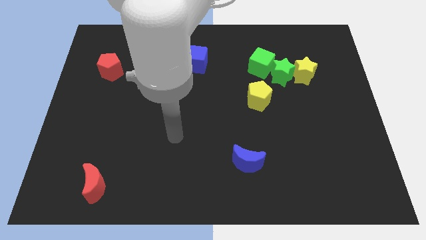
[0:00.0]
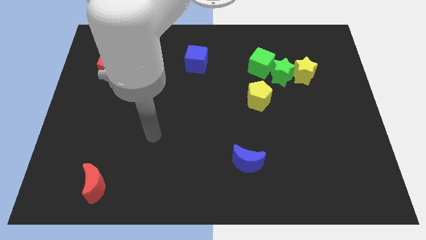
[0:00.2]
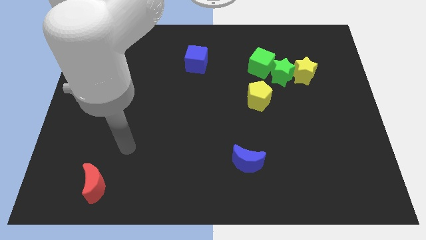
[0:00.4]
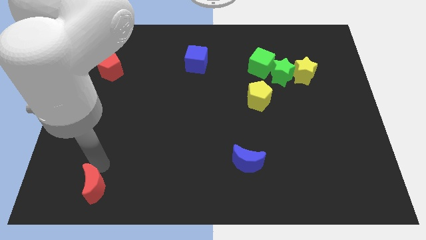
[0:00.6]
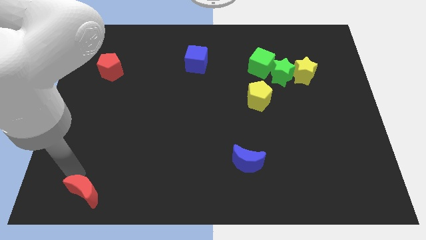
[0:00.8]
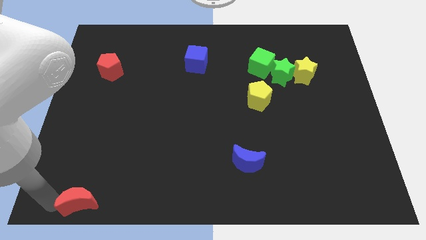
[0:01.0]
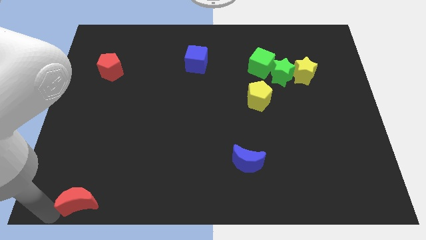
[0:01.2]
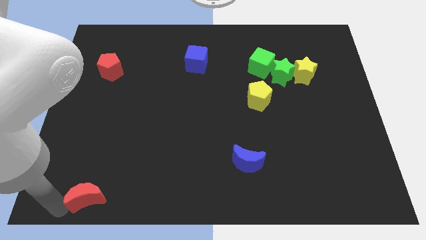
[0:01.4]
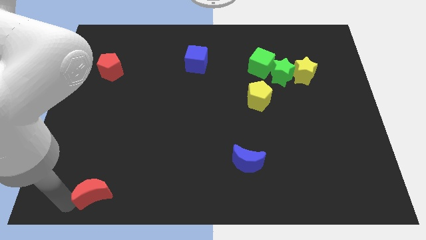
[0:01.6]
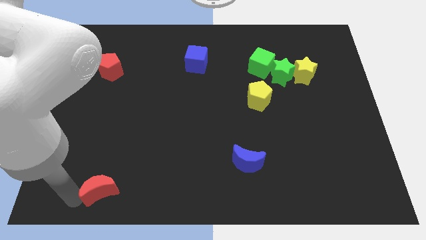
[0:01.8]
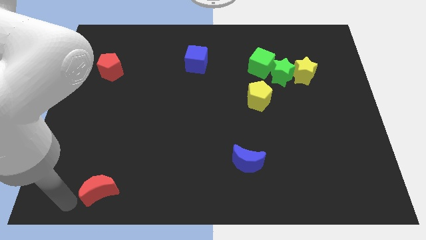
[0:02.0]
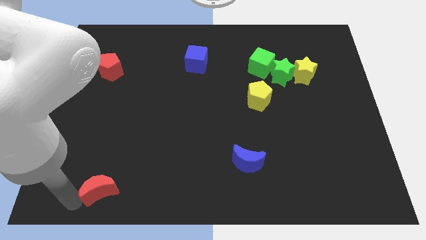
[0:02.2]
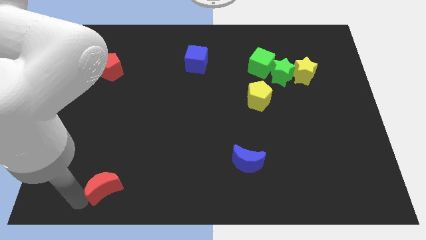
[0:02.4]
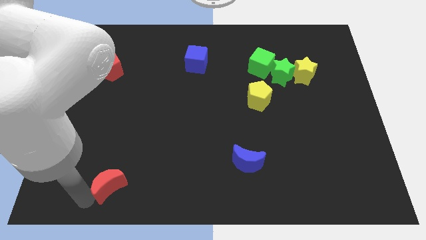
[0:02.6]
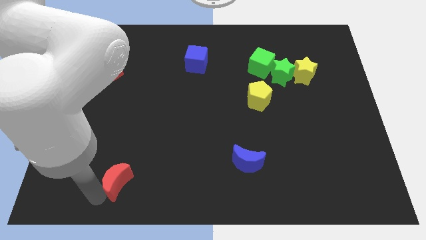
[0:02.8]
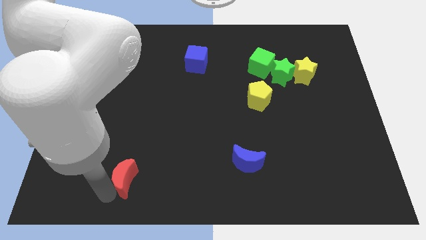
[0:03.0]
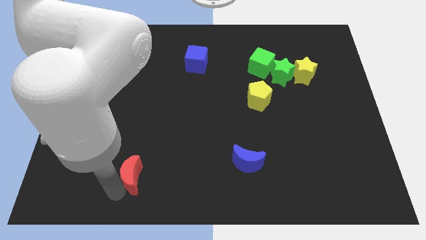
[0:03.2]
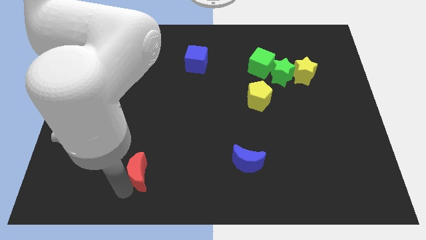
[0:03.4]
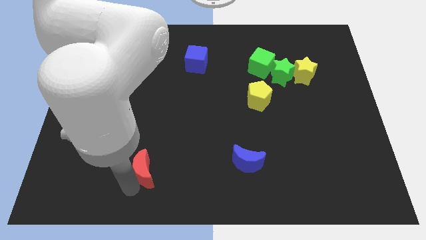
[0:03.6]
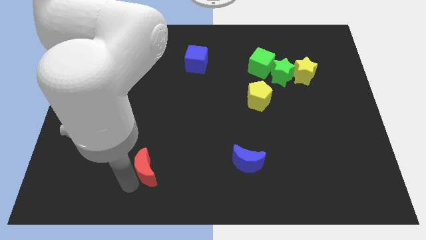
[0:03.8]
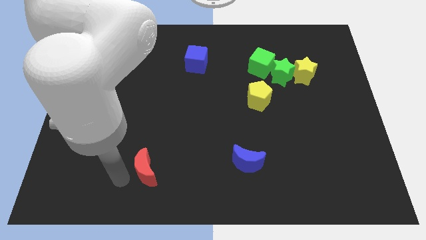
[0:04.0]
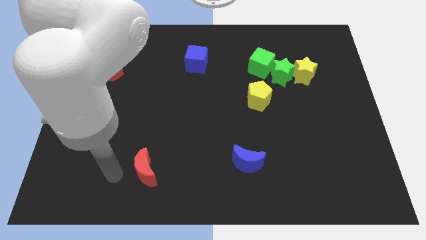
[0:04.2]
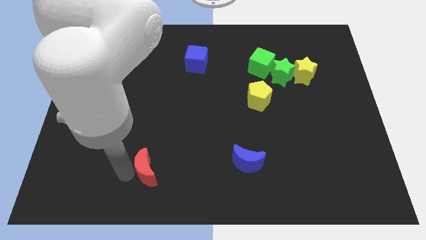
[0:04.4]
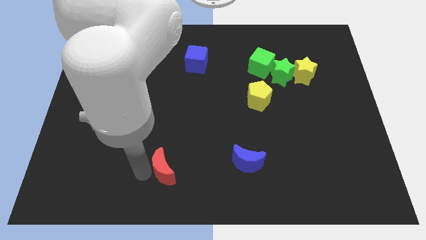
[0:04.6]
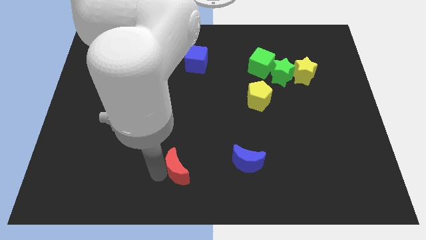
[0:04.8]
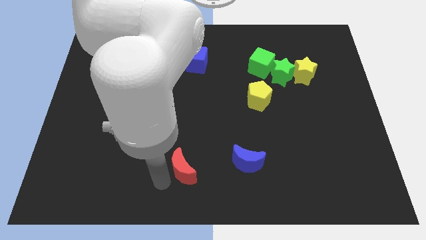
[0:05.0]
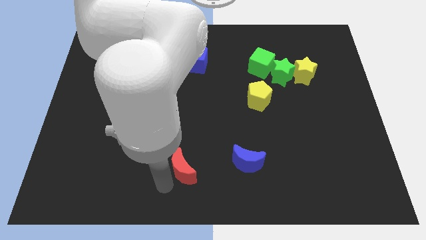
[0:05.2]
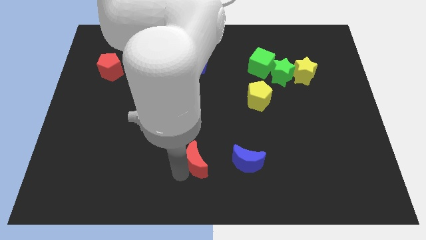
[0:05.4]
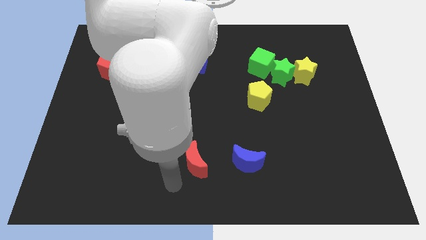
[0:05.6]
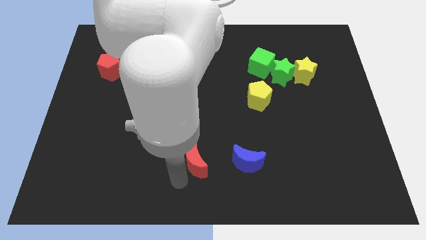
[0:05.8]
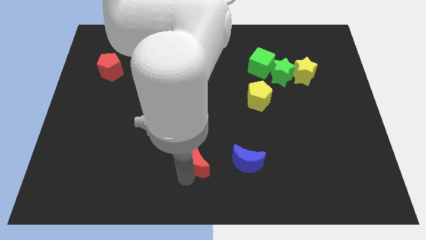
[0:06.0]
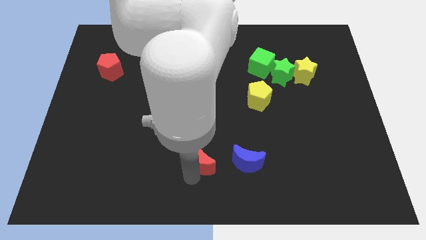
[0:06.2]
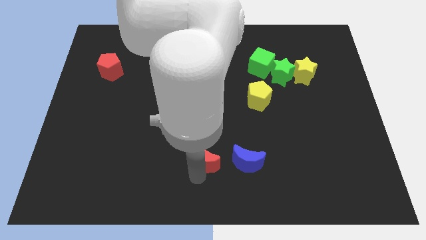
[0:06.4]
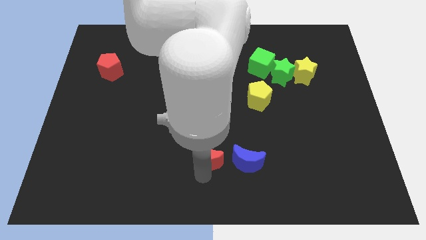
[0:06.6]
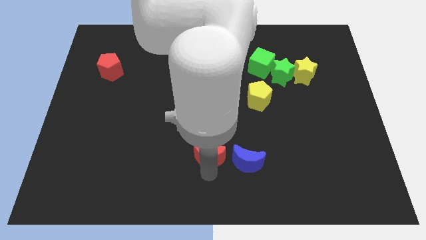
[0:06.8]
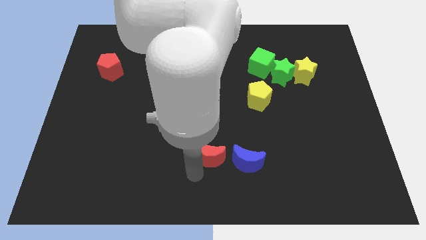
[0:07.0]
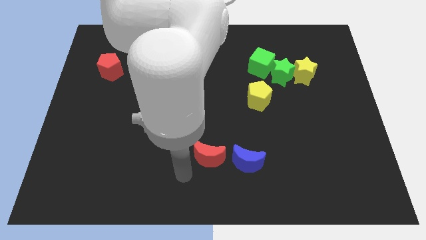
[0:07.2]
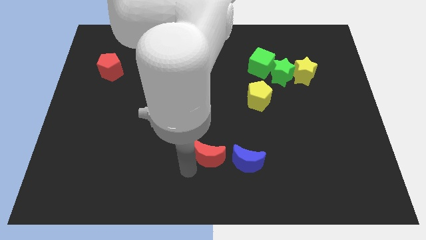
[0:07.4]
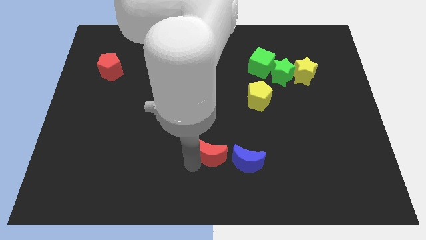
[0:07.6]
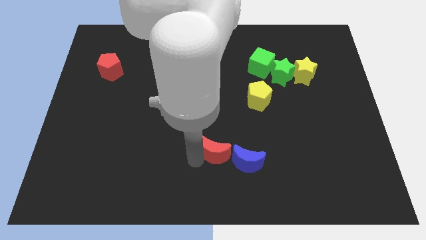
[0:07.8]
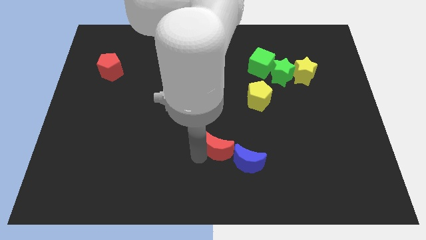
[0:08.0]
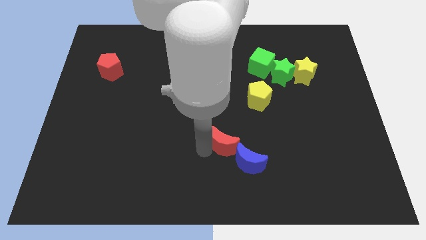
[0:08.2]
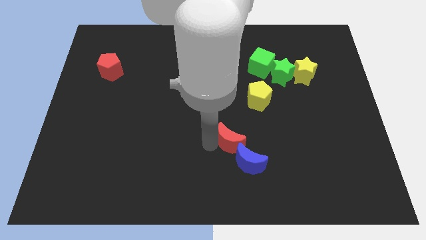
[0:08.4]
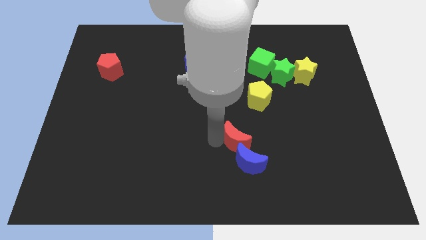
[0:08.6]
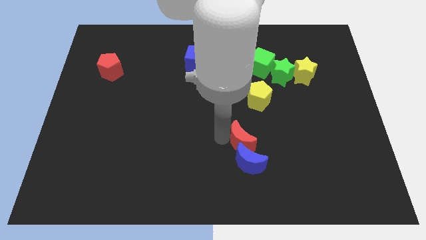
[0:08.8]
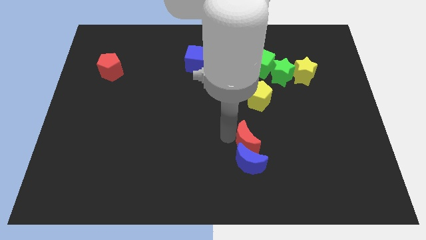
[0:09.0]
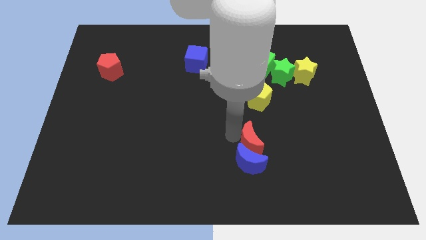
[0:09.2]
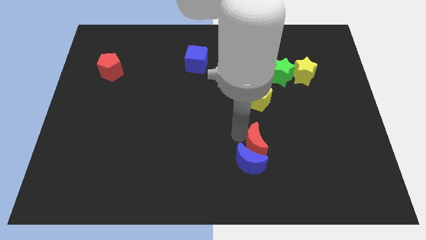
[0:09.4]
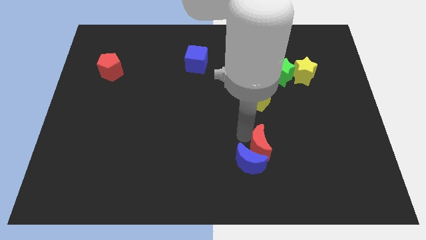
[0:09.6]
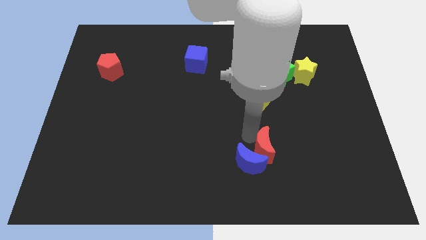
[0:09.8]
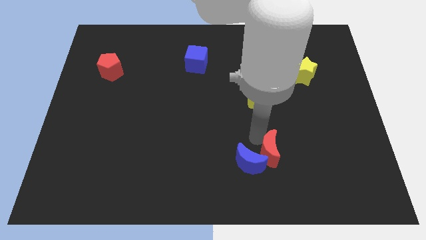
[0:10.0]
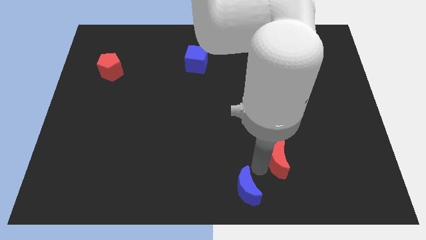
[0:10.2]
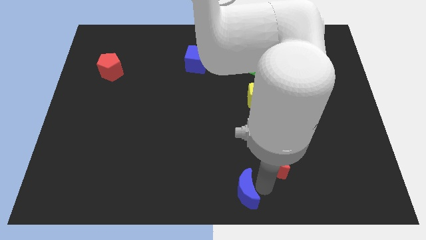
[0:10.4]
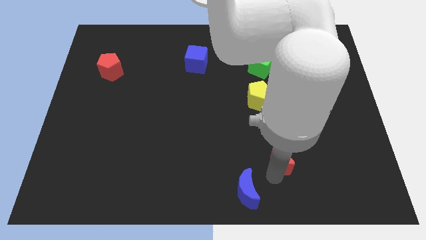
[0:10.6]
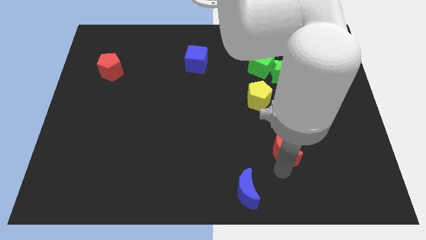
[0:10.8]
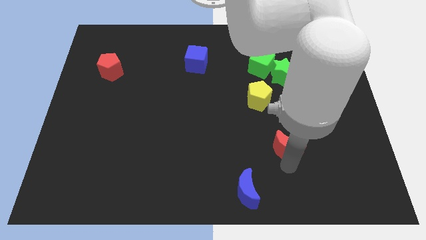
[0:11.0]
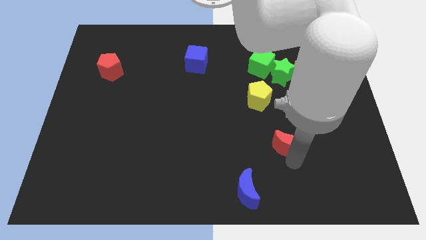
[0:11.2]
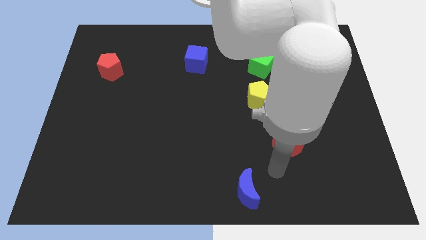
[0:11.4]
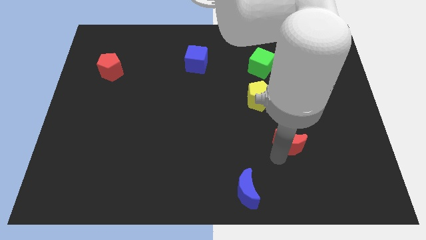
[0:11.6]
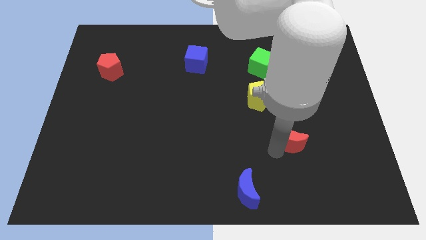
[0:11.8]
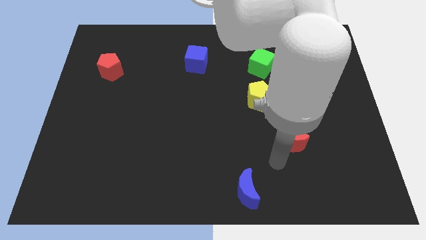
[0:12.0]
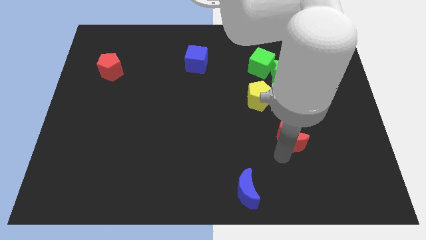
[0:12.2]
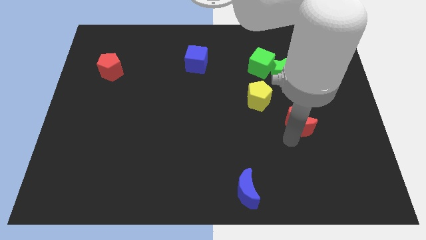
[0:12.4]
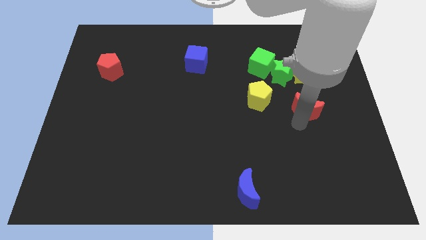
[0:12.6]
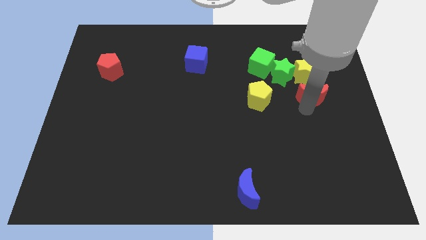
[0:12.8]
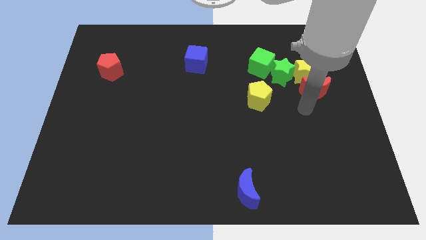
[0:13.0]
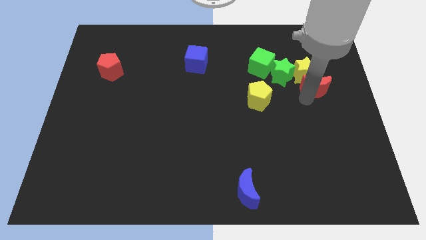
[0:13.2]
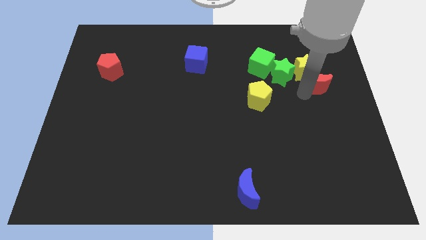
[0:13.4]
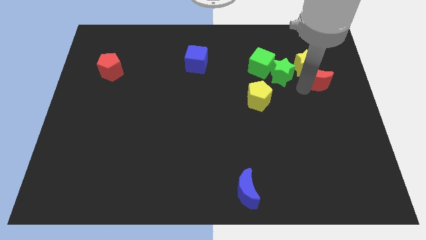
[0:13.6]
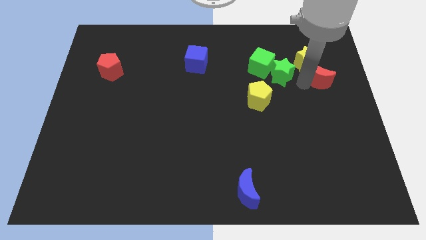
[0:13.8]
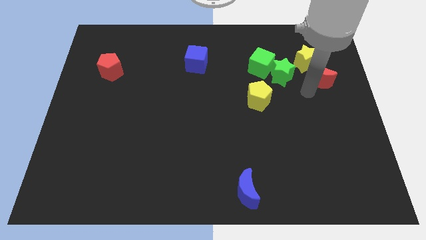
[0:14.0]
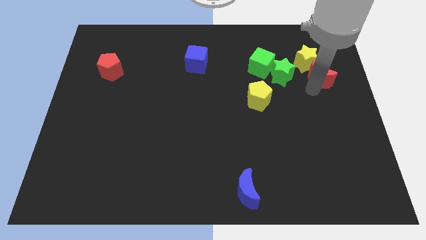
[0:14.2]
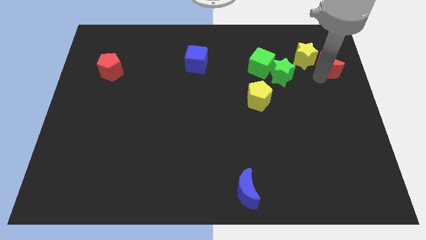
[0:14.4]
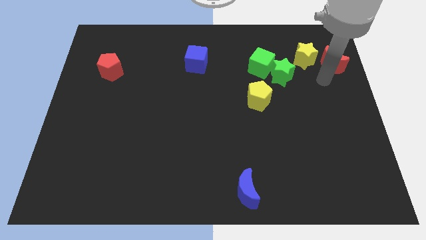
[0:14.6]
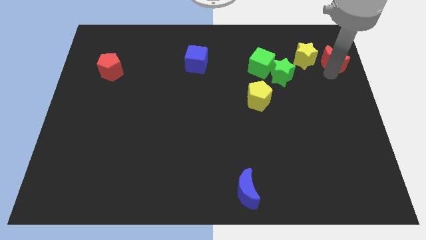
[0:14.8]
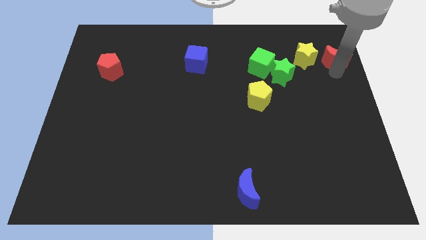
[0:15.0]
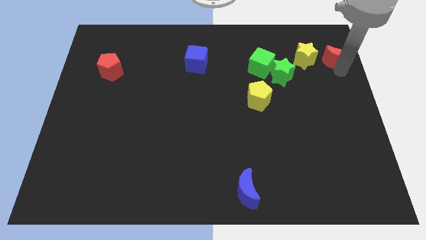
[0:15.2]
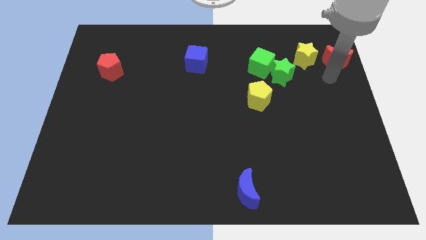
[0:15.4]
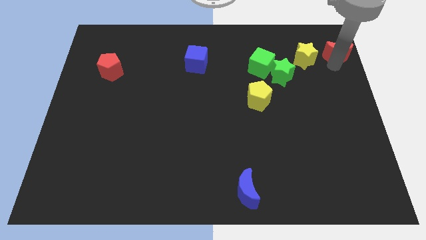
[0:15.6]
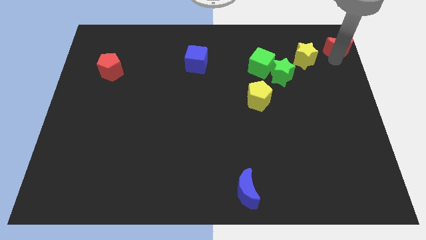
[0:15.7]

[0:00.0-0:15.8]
put the red moon to the upper right corner
